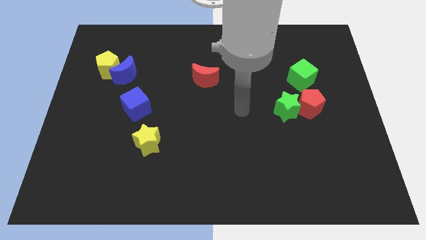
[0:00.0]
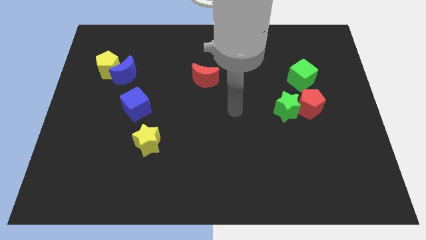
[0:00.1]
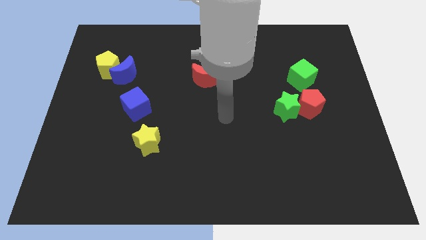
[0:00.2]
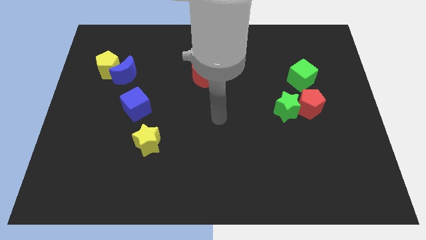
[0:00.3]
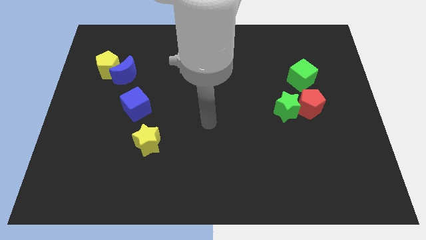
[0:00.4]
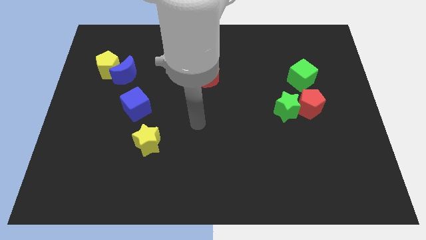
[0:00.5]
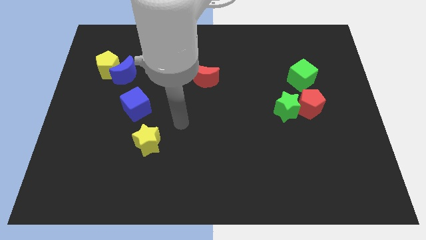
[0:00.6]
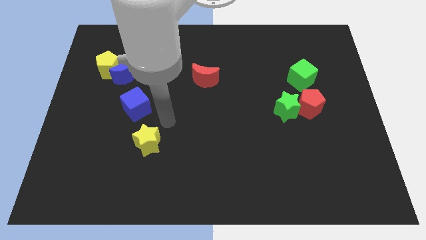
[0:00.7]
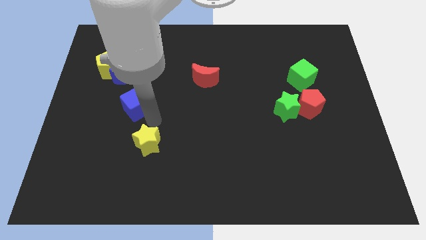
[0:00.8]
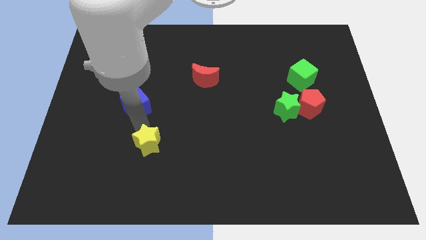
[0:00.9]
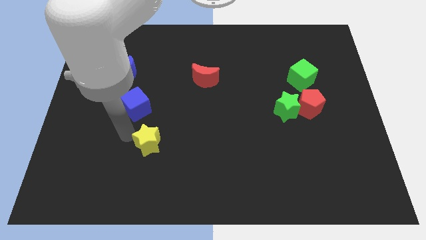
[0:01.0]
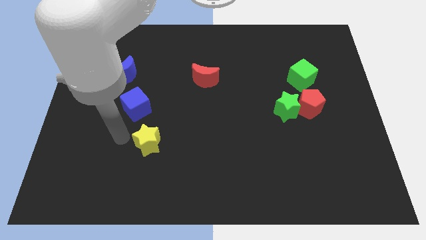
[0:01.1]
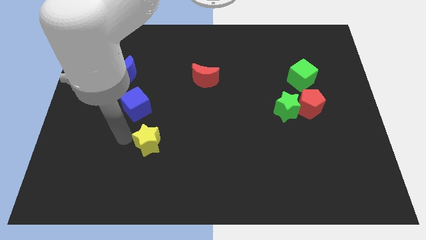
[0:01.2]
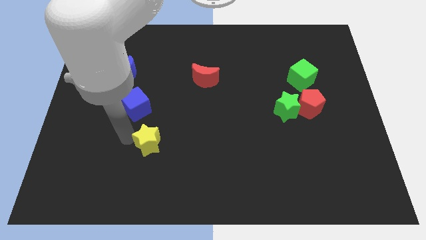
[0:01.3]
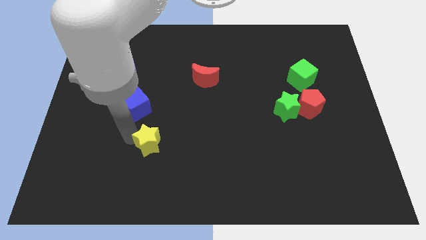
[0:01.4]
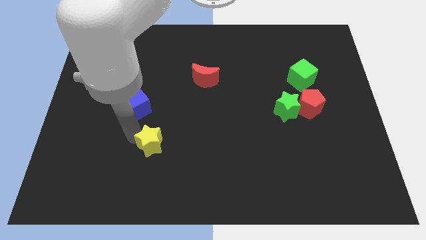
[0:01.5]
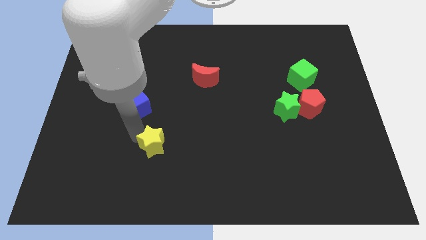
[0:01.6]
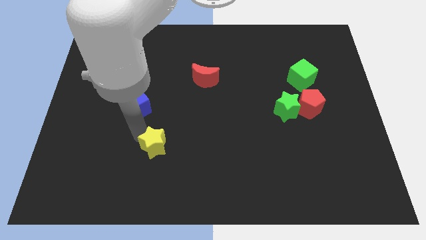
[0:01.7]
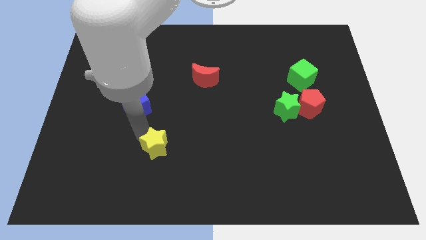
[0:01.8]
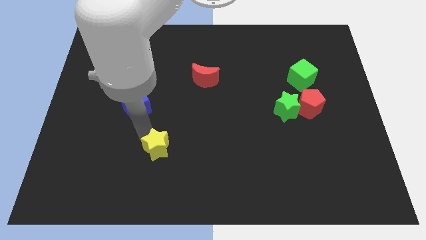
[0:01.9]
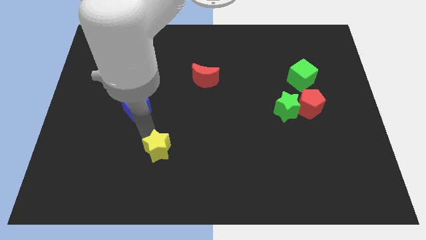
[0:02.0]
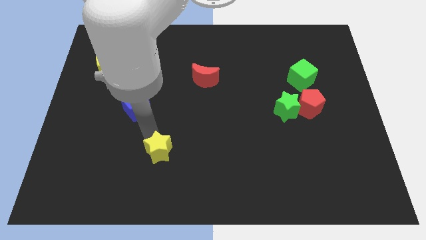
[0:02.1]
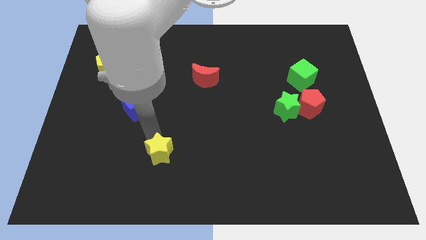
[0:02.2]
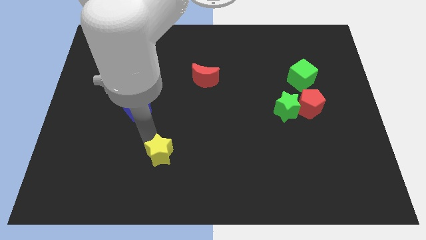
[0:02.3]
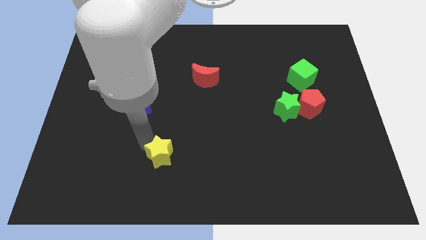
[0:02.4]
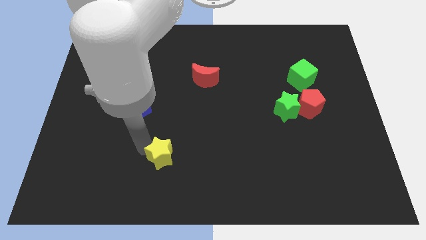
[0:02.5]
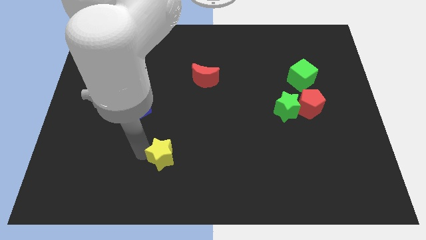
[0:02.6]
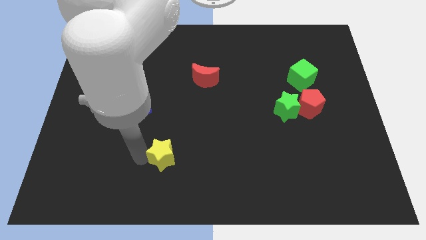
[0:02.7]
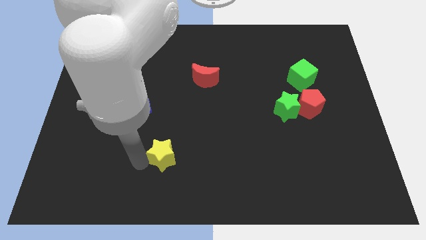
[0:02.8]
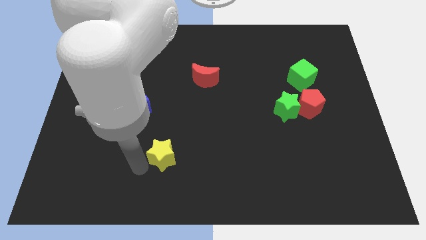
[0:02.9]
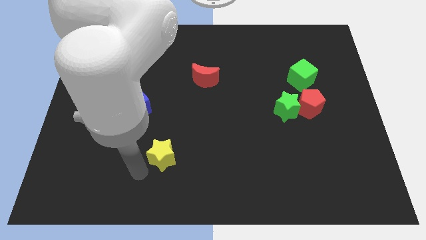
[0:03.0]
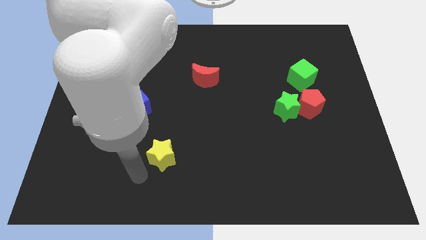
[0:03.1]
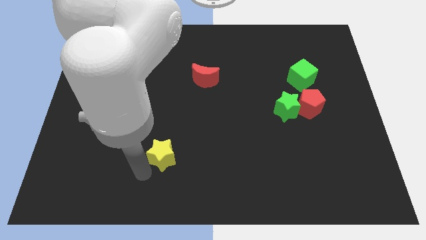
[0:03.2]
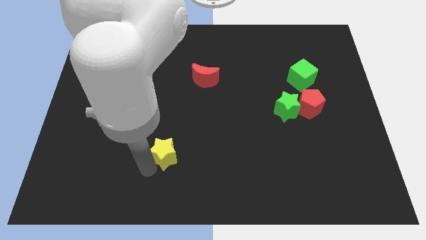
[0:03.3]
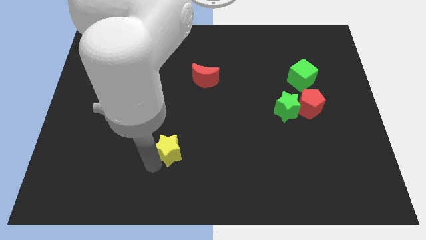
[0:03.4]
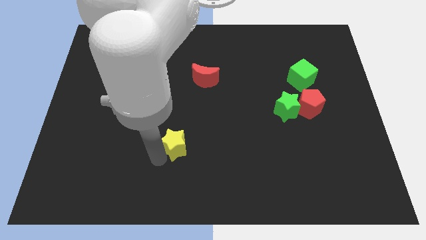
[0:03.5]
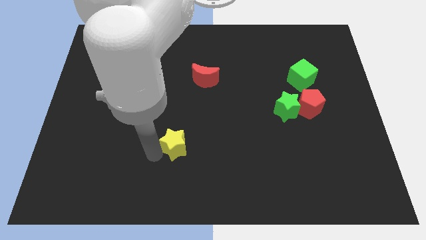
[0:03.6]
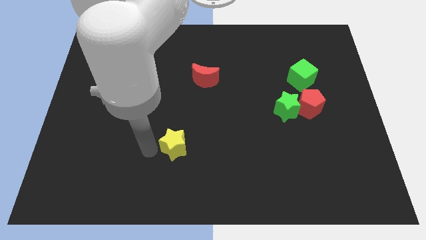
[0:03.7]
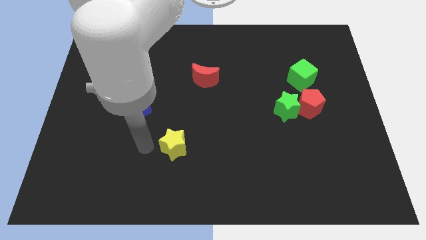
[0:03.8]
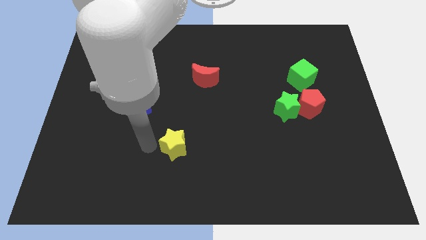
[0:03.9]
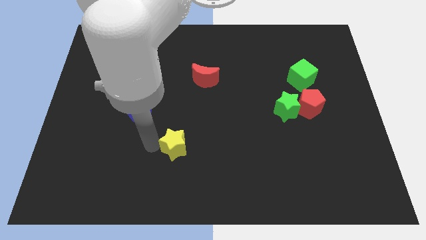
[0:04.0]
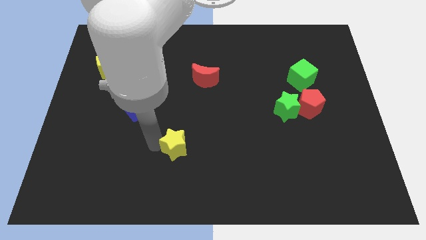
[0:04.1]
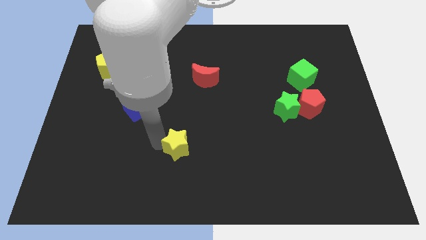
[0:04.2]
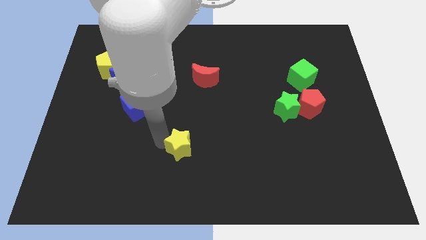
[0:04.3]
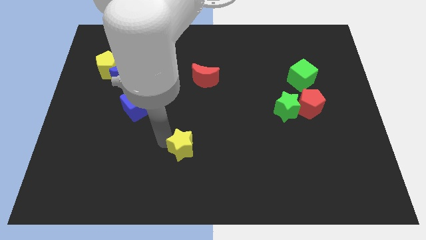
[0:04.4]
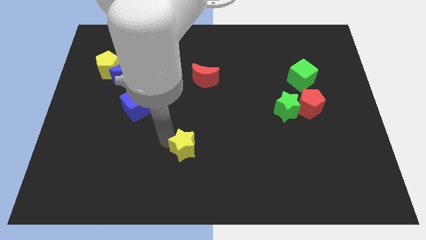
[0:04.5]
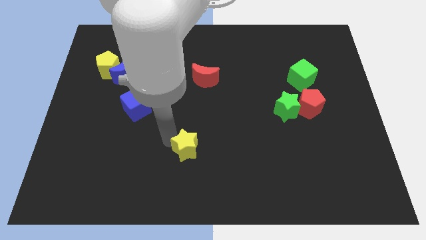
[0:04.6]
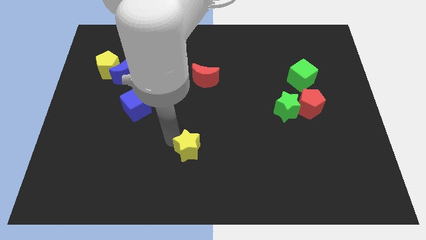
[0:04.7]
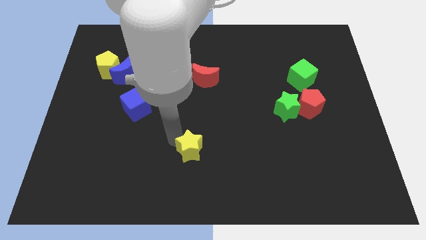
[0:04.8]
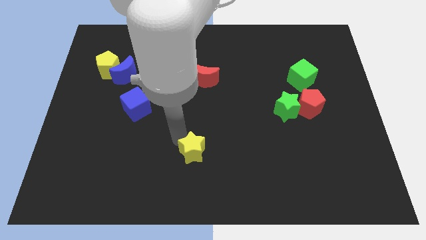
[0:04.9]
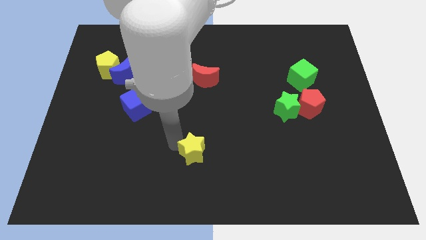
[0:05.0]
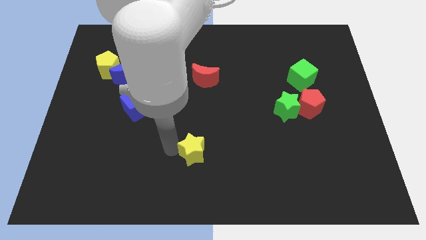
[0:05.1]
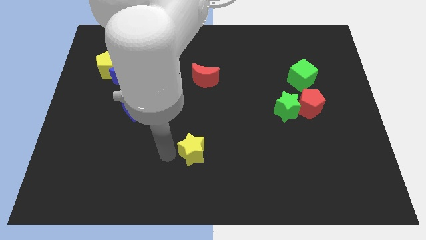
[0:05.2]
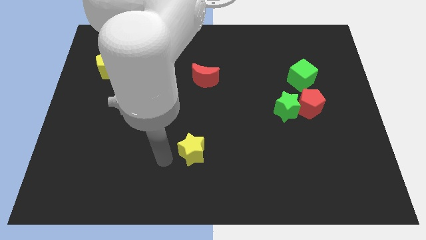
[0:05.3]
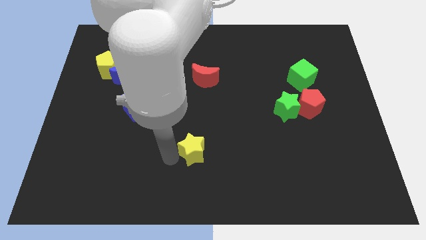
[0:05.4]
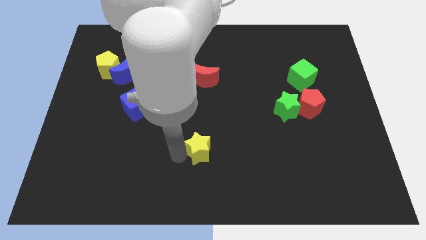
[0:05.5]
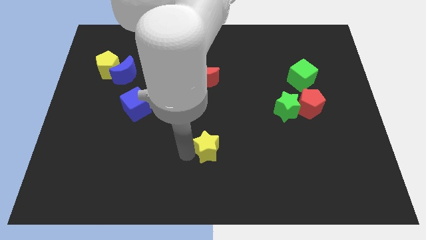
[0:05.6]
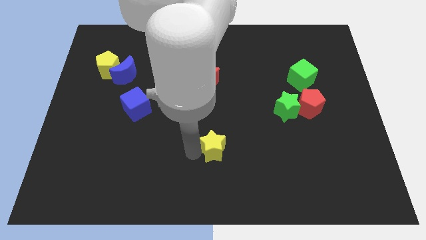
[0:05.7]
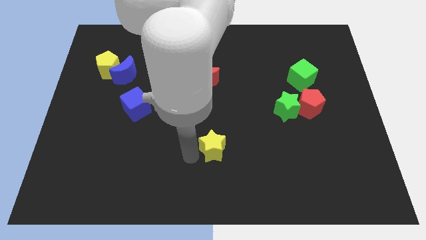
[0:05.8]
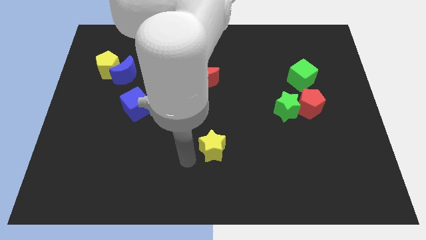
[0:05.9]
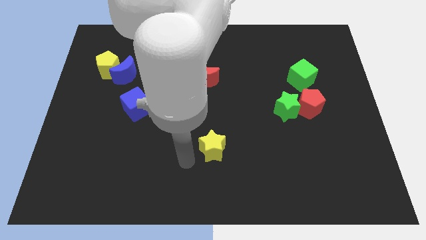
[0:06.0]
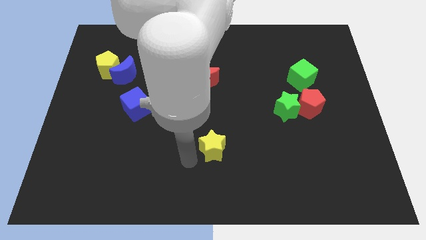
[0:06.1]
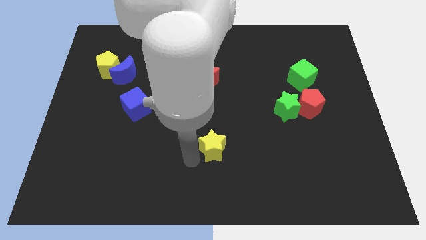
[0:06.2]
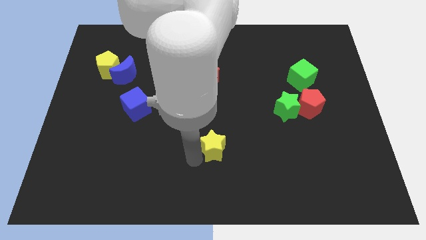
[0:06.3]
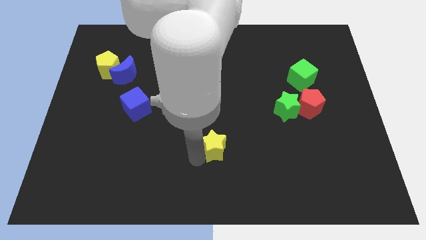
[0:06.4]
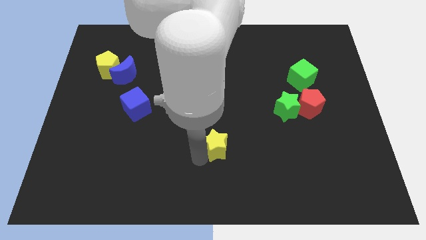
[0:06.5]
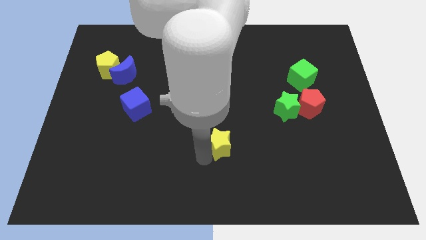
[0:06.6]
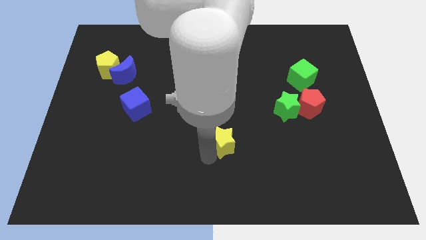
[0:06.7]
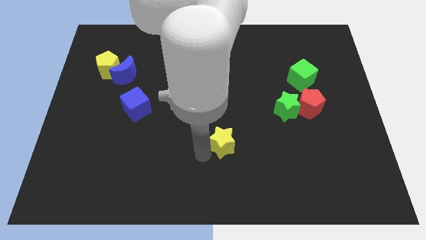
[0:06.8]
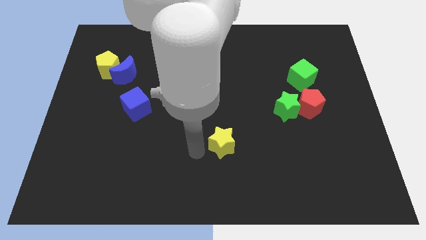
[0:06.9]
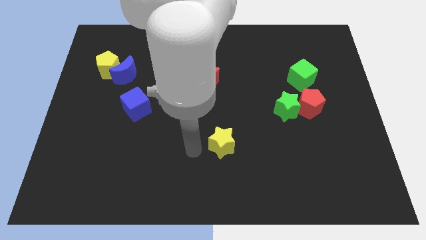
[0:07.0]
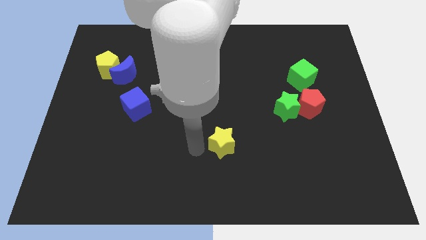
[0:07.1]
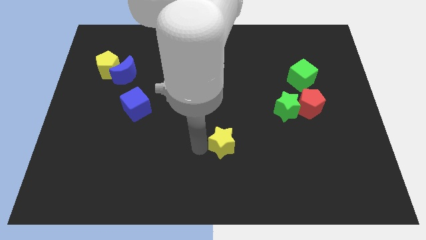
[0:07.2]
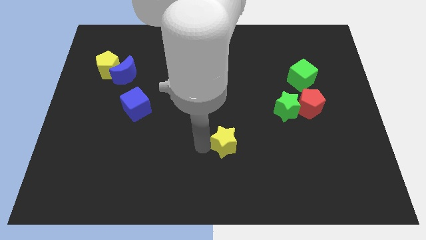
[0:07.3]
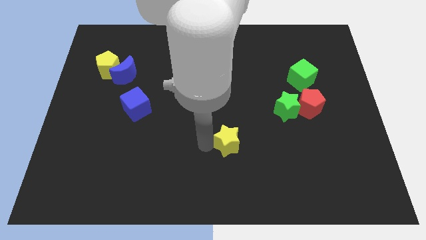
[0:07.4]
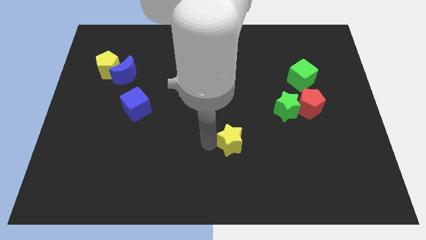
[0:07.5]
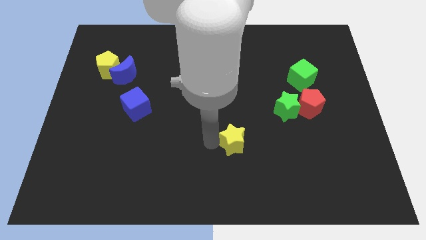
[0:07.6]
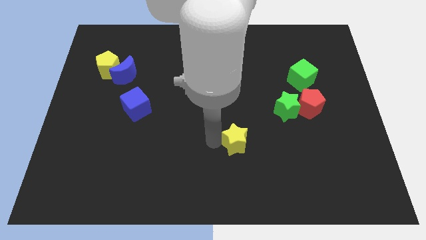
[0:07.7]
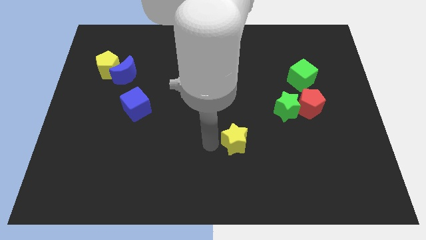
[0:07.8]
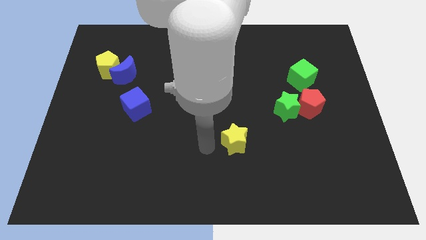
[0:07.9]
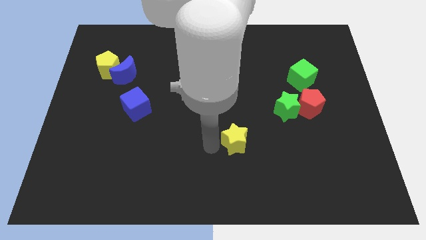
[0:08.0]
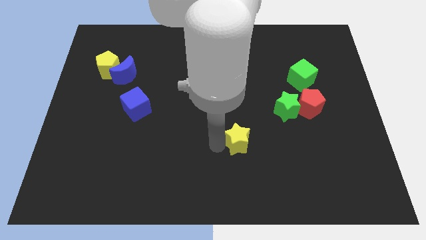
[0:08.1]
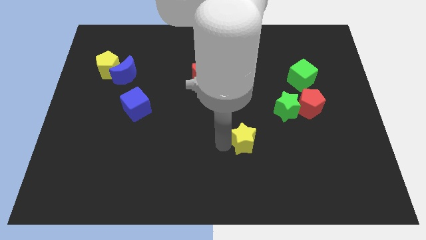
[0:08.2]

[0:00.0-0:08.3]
slide the yellow star to the right
